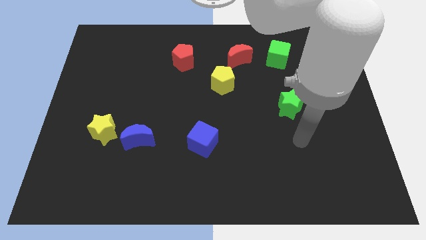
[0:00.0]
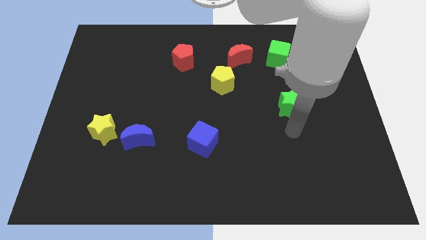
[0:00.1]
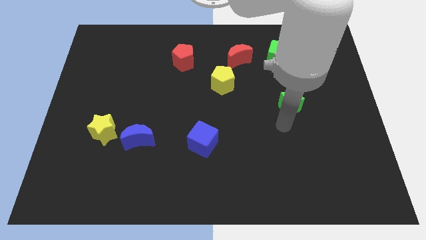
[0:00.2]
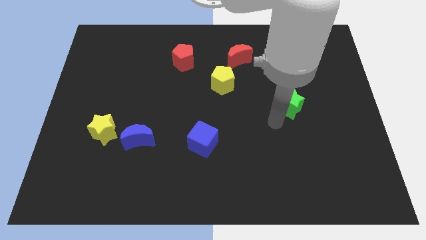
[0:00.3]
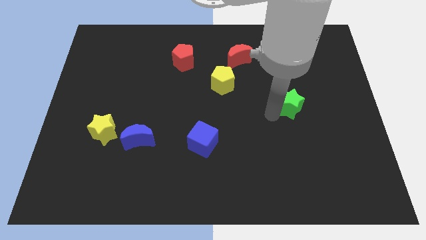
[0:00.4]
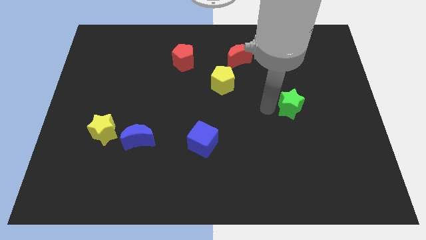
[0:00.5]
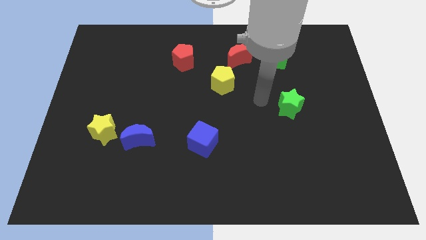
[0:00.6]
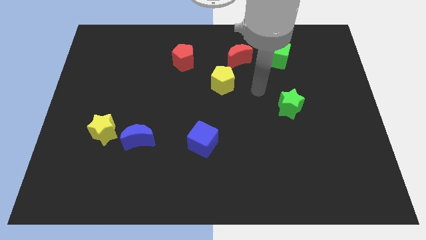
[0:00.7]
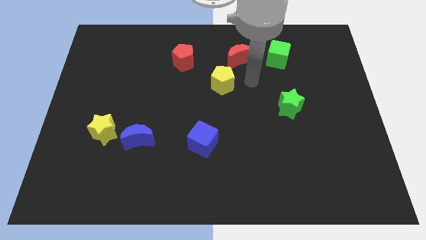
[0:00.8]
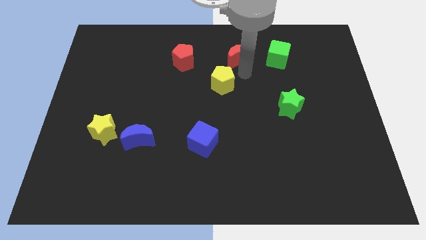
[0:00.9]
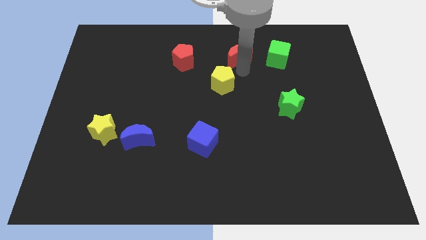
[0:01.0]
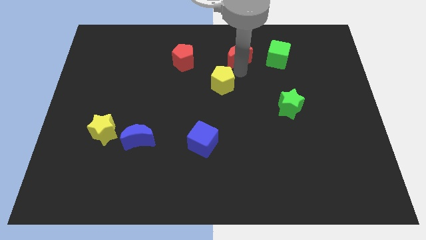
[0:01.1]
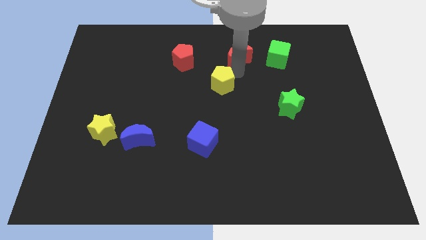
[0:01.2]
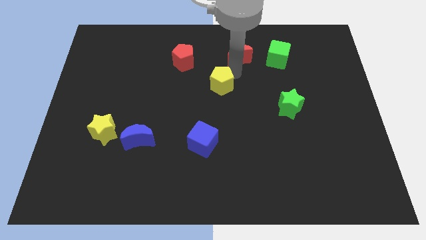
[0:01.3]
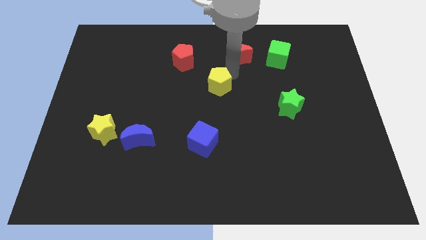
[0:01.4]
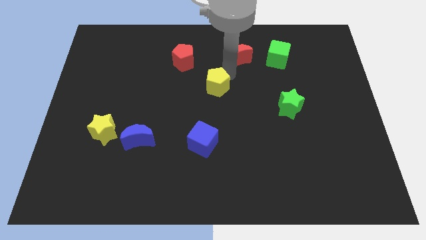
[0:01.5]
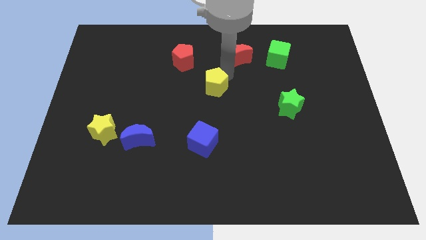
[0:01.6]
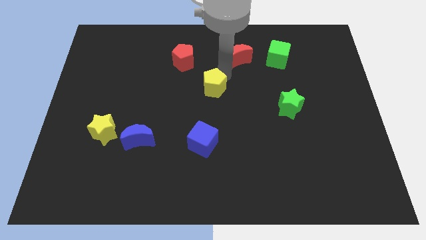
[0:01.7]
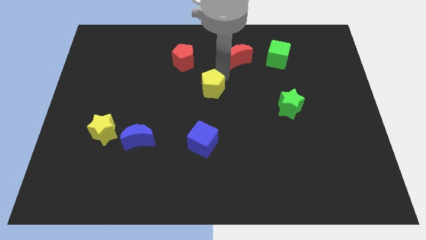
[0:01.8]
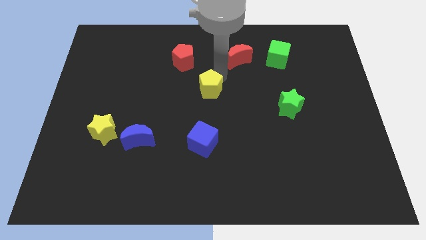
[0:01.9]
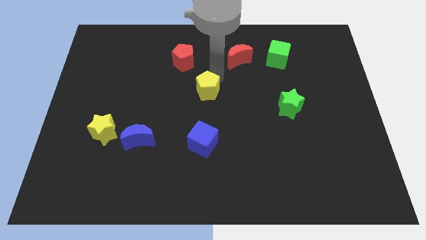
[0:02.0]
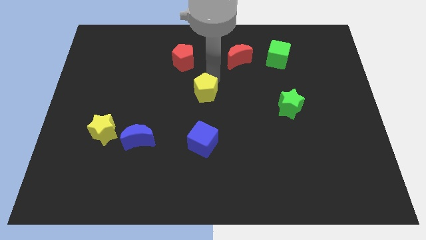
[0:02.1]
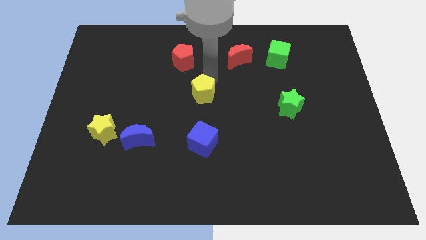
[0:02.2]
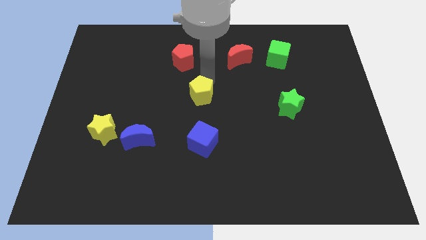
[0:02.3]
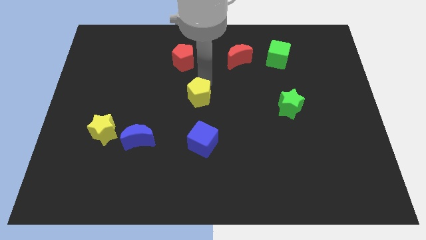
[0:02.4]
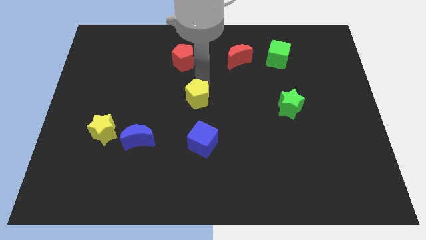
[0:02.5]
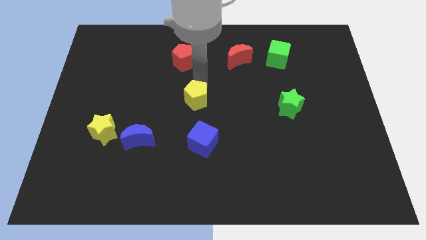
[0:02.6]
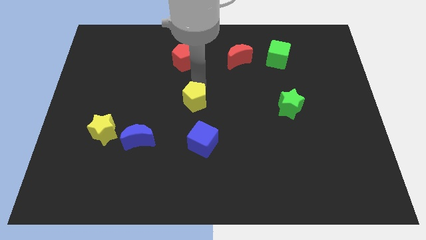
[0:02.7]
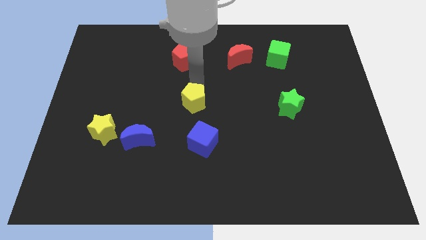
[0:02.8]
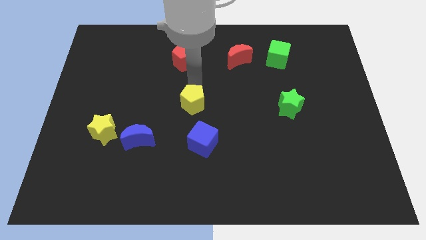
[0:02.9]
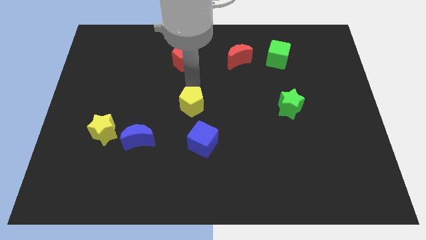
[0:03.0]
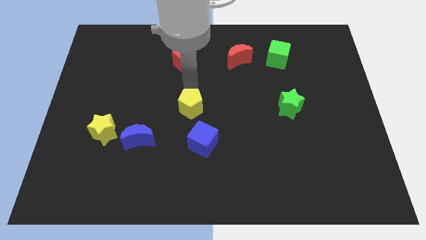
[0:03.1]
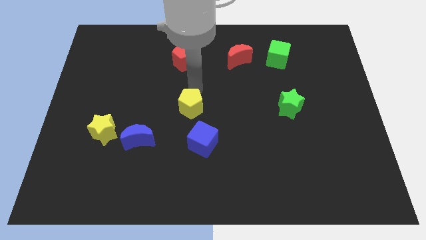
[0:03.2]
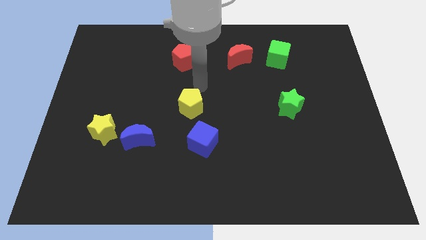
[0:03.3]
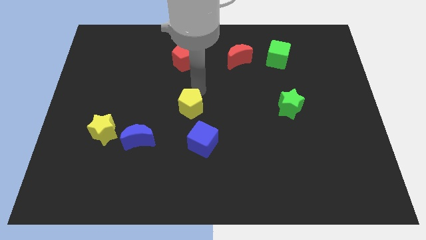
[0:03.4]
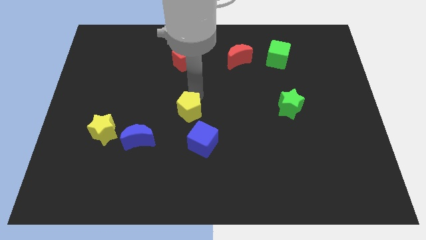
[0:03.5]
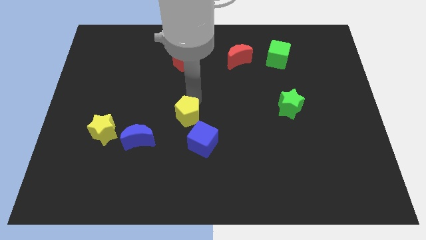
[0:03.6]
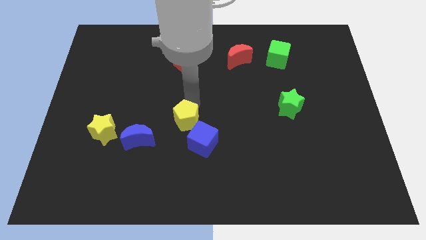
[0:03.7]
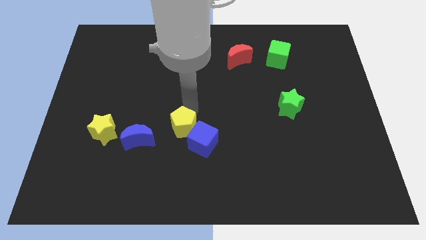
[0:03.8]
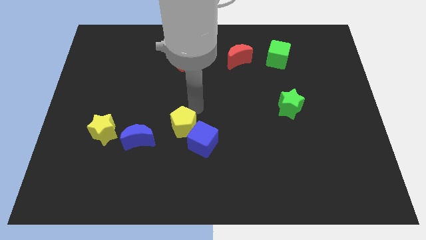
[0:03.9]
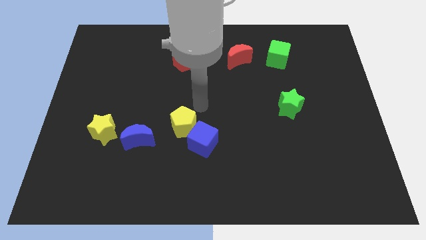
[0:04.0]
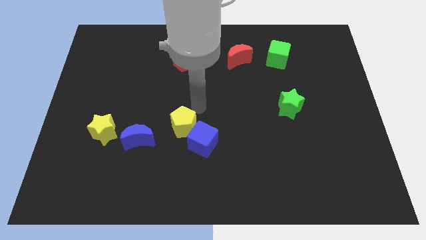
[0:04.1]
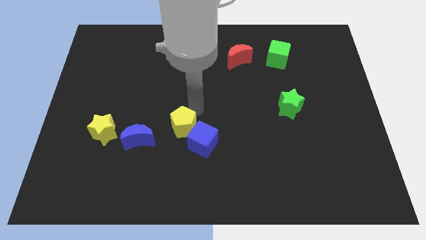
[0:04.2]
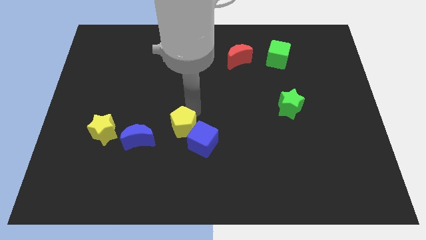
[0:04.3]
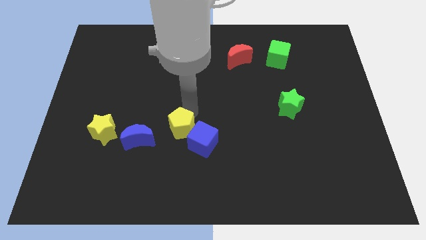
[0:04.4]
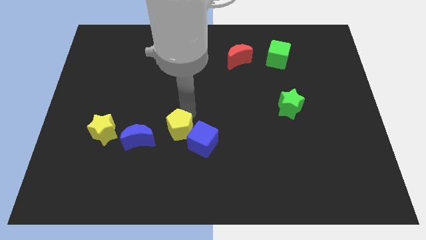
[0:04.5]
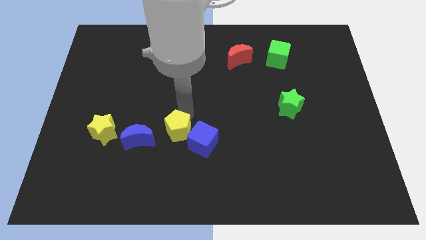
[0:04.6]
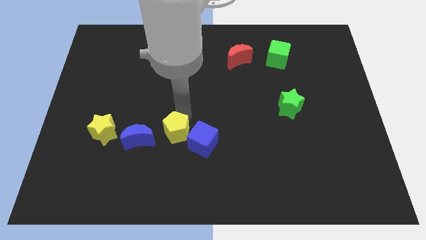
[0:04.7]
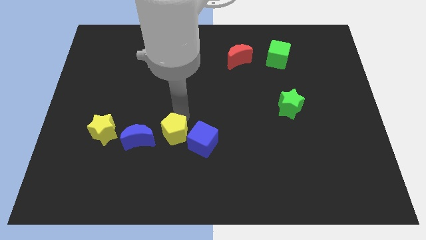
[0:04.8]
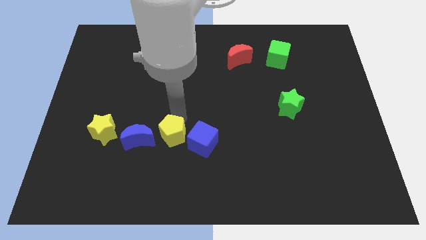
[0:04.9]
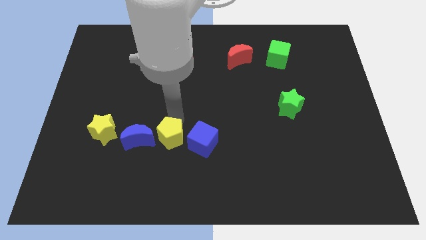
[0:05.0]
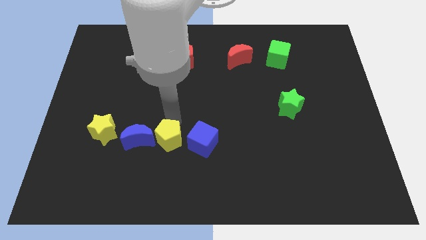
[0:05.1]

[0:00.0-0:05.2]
put the yellow pentagon diagonally down and to the right of the blue moon

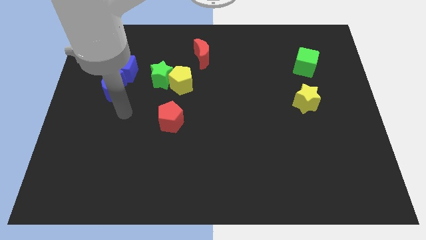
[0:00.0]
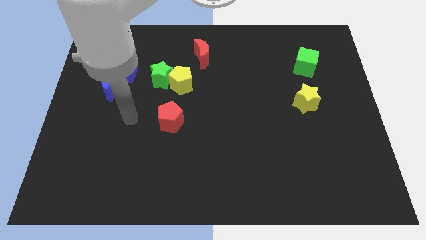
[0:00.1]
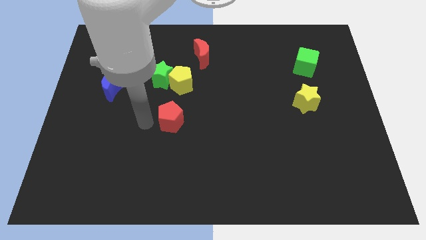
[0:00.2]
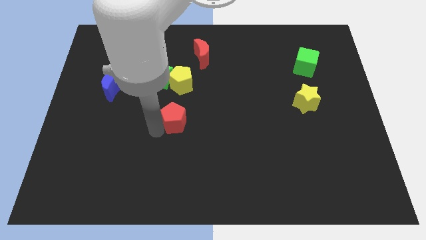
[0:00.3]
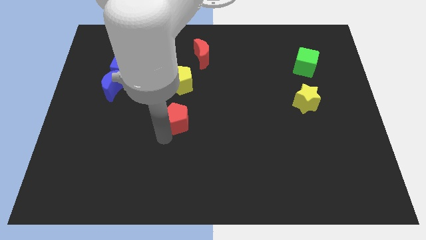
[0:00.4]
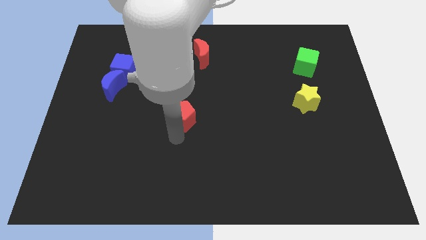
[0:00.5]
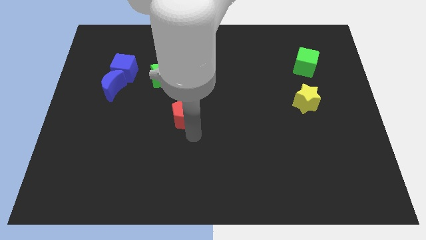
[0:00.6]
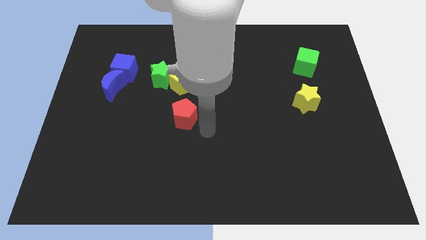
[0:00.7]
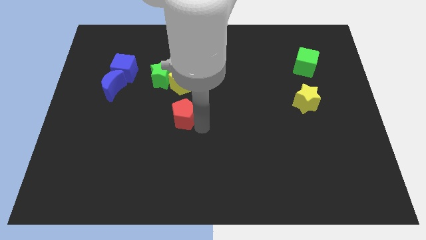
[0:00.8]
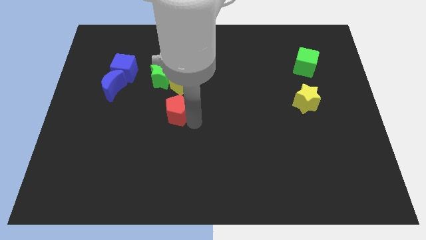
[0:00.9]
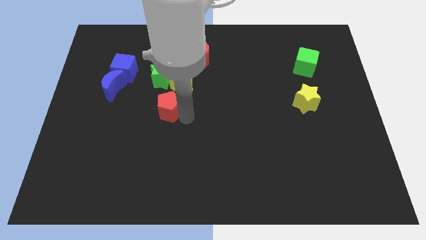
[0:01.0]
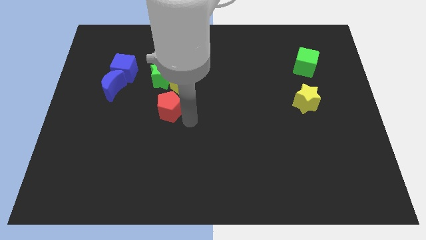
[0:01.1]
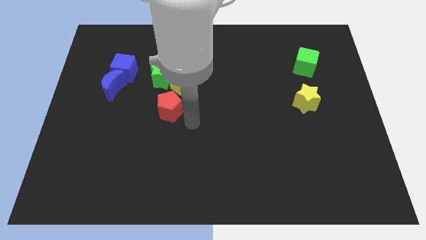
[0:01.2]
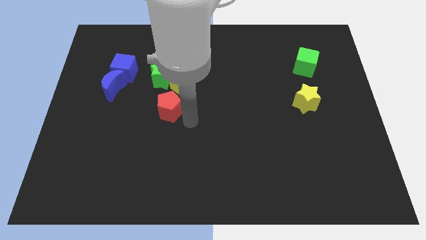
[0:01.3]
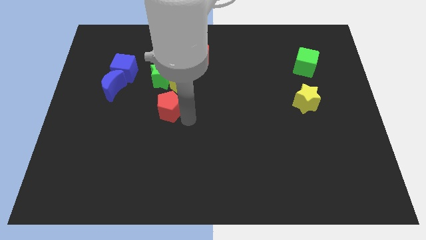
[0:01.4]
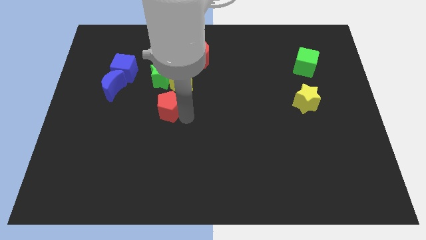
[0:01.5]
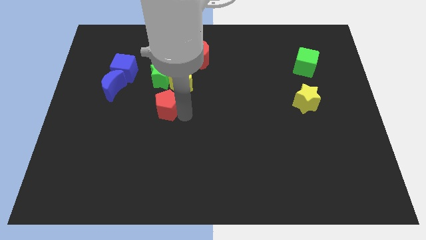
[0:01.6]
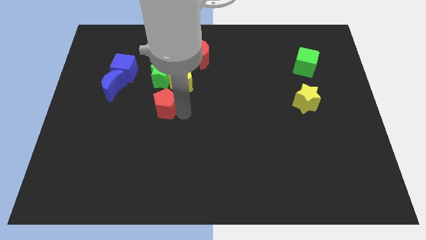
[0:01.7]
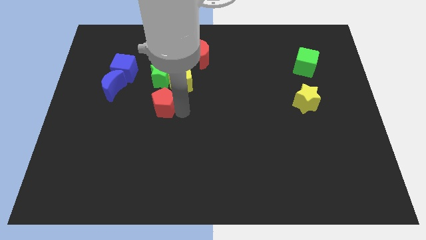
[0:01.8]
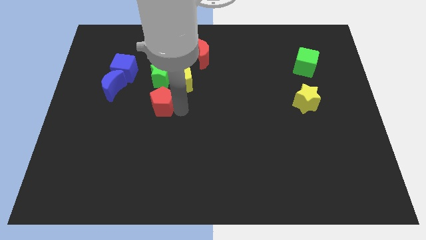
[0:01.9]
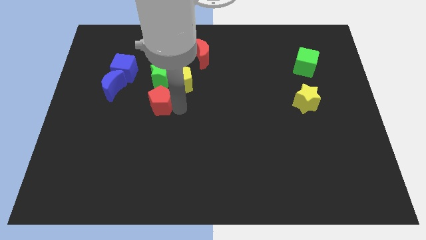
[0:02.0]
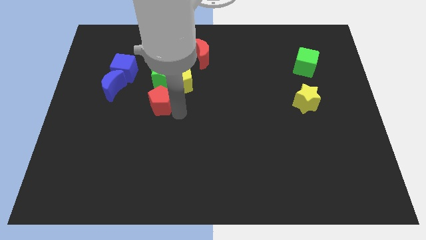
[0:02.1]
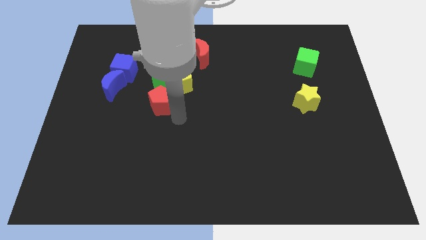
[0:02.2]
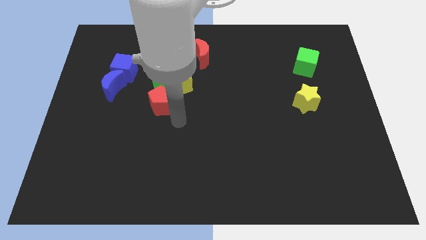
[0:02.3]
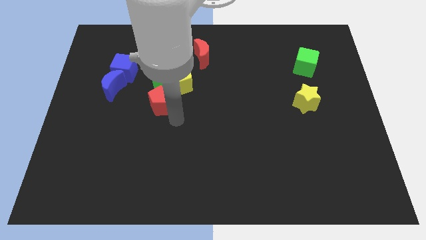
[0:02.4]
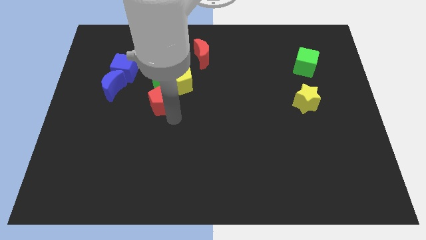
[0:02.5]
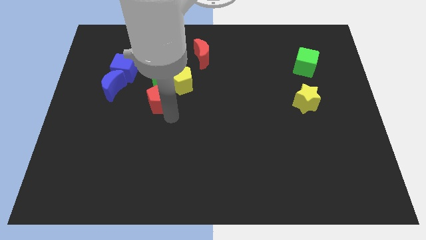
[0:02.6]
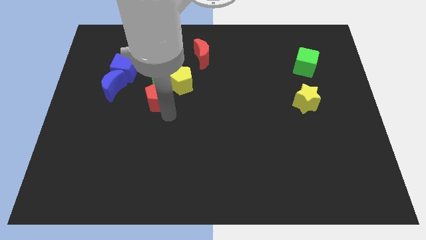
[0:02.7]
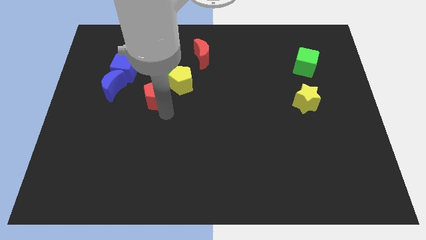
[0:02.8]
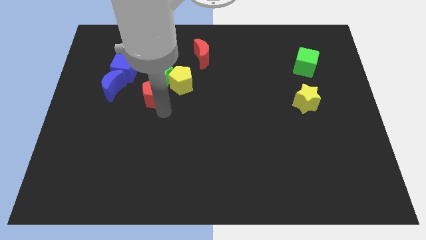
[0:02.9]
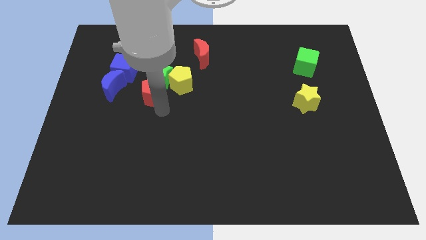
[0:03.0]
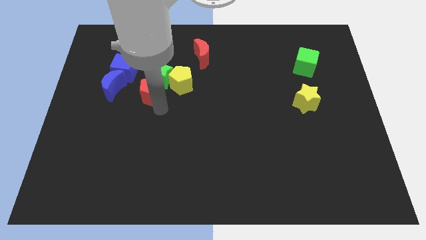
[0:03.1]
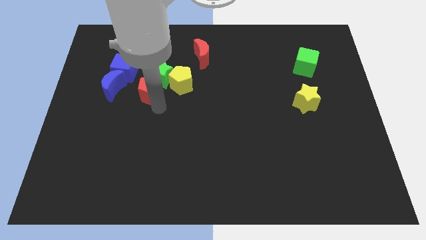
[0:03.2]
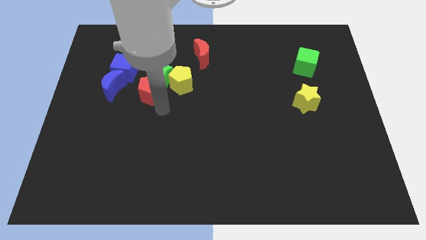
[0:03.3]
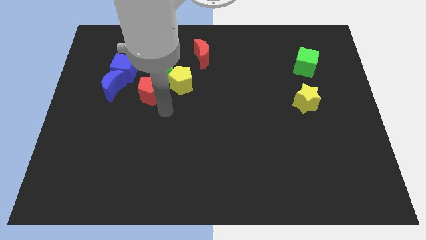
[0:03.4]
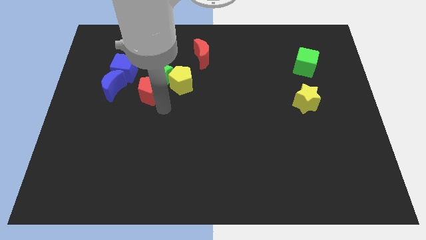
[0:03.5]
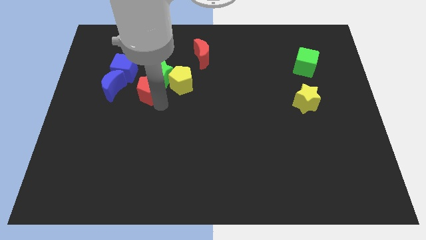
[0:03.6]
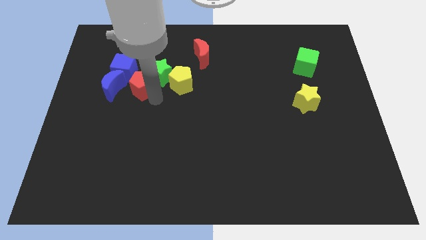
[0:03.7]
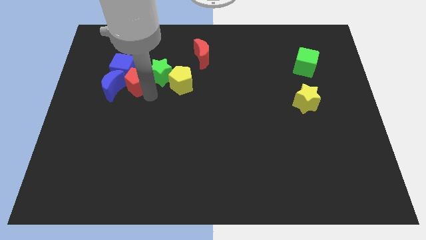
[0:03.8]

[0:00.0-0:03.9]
slide the red pentagon to the top right side of the blue moon
